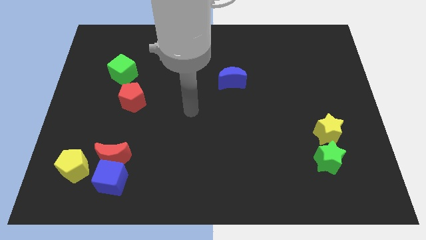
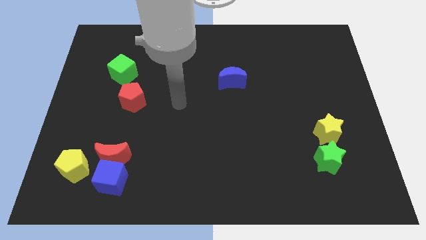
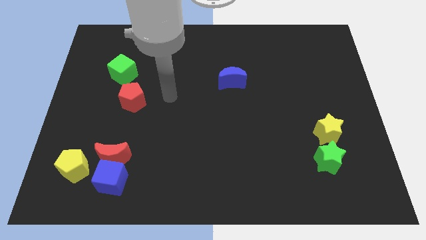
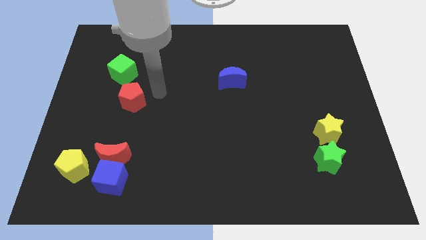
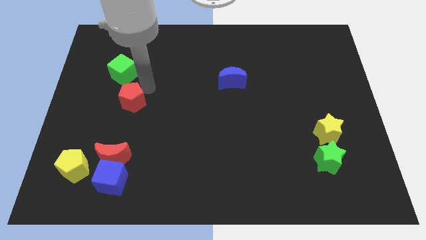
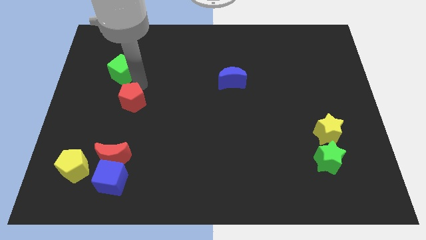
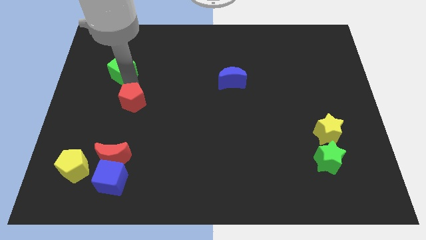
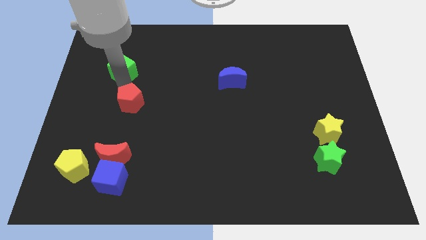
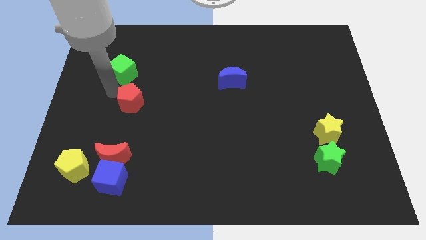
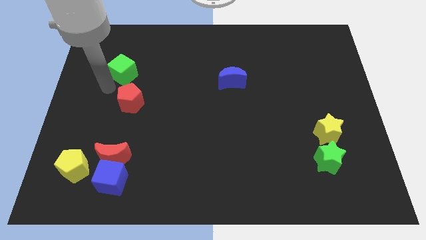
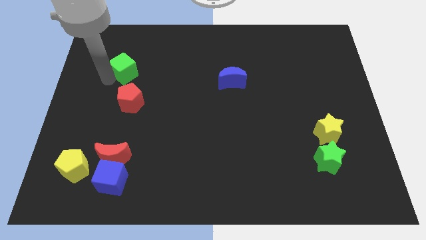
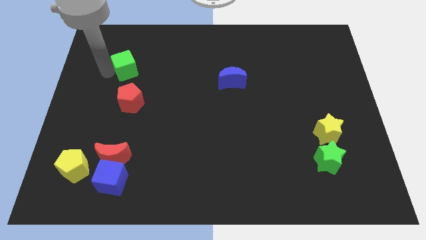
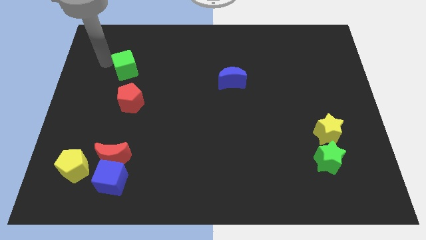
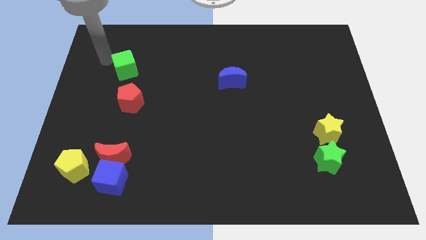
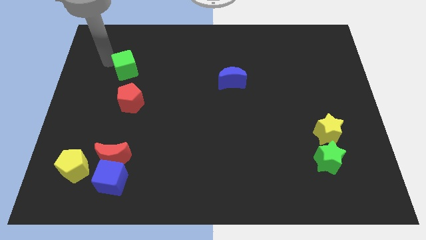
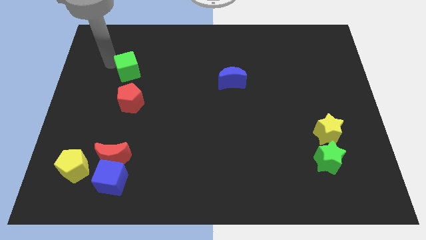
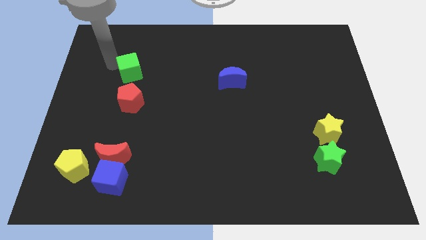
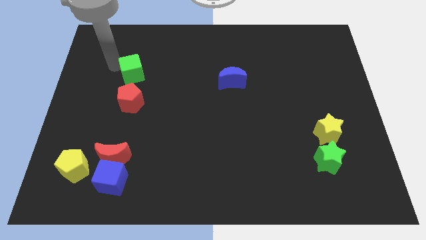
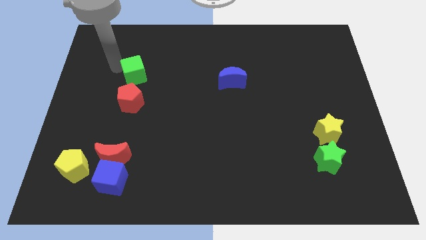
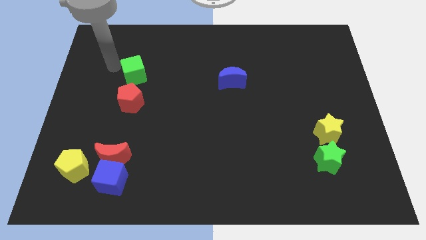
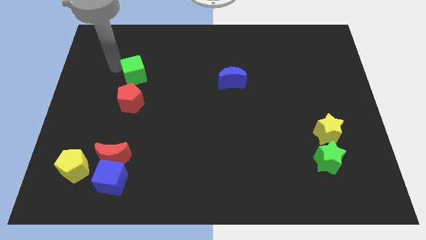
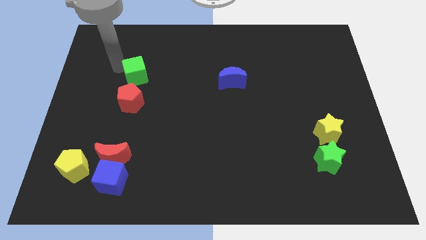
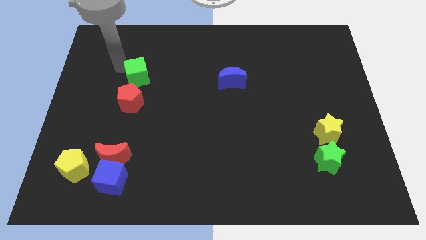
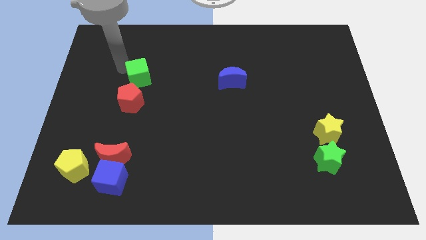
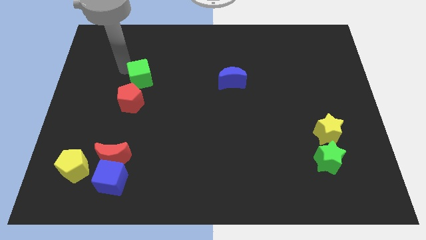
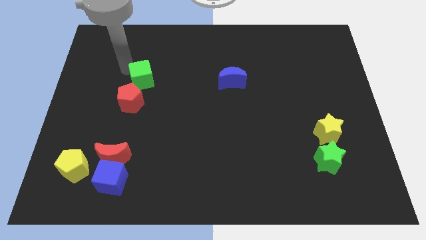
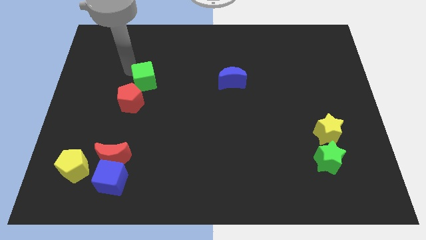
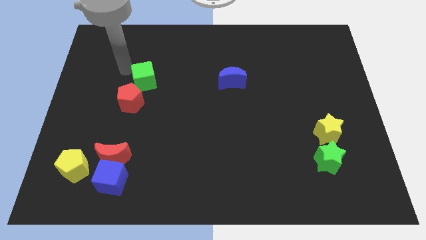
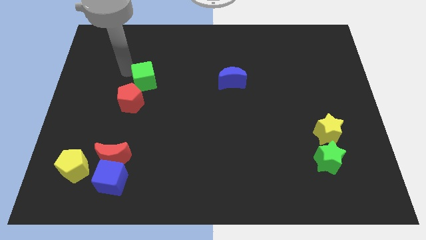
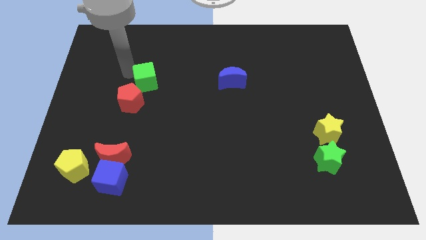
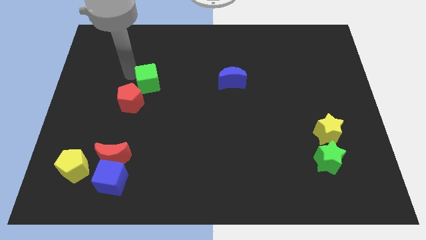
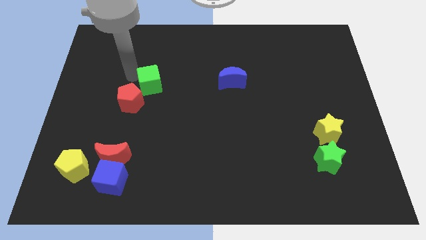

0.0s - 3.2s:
push the green cube down and to the right diagonally a little bit

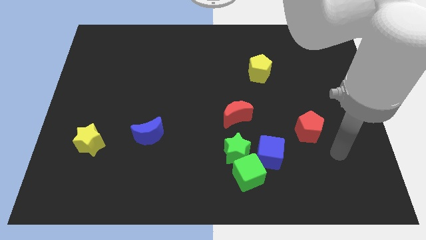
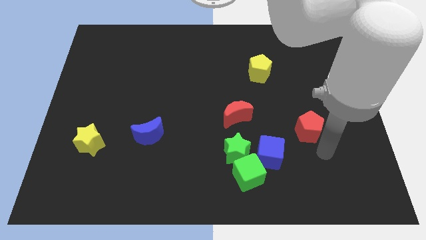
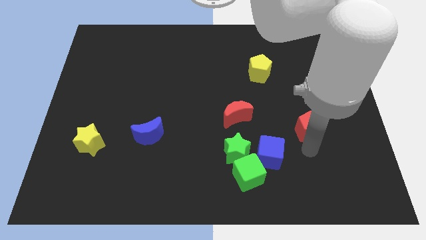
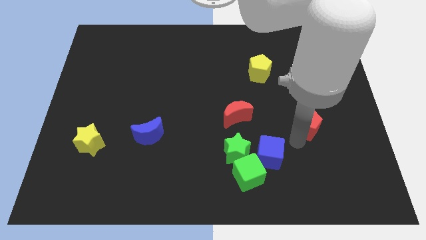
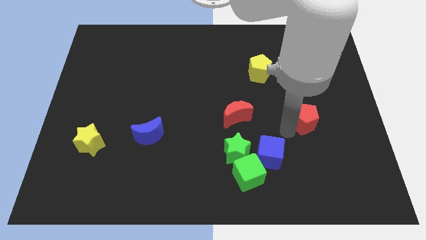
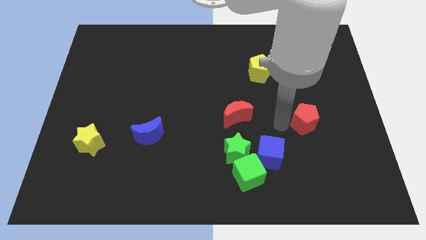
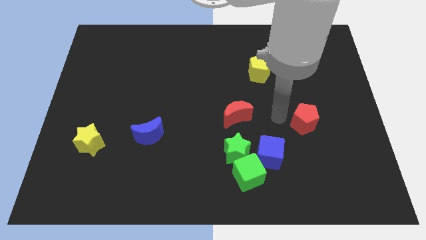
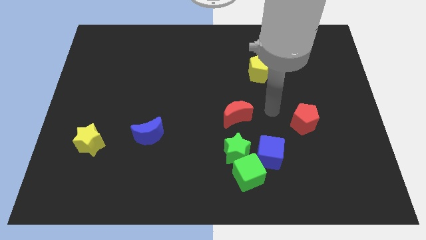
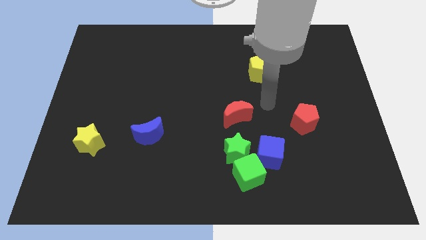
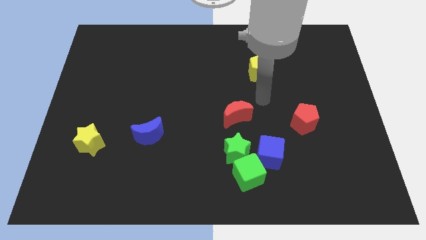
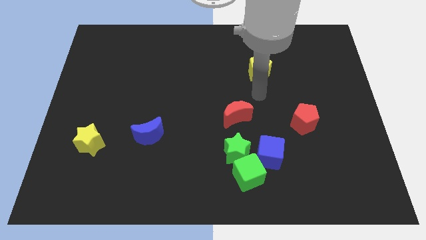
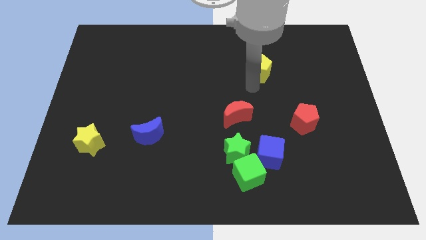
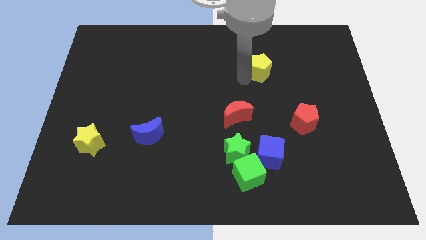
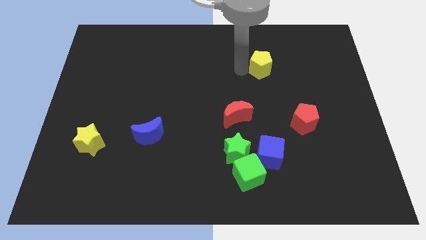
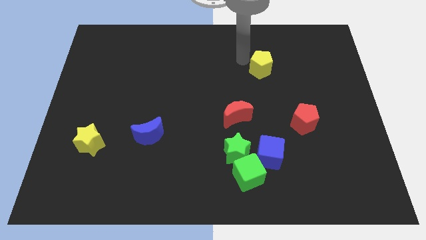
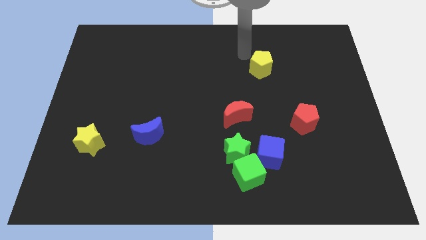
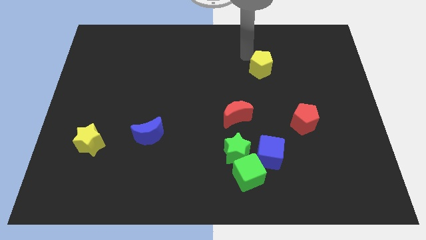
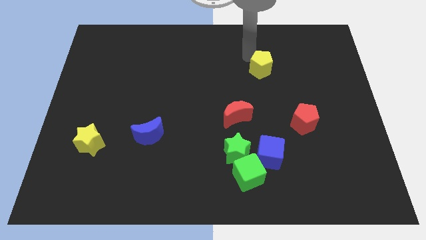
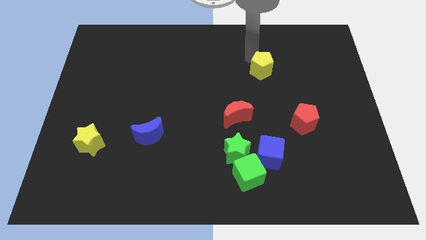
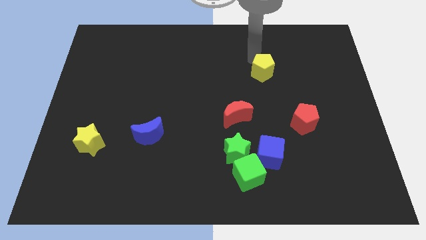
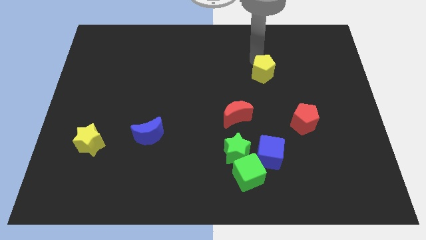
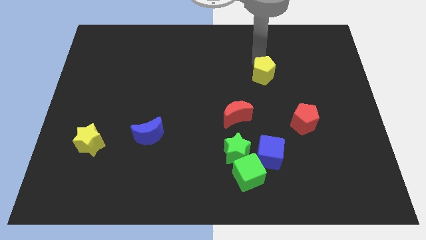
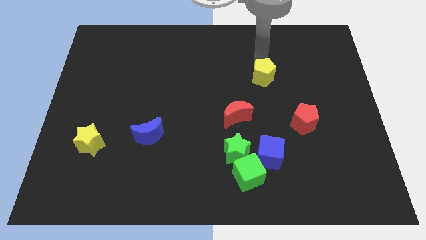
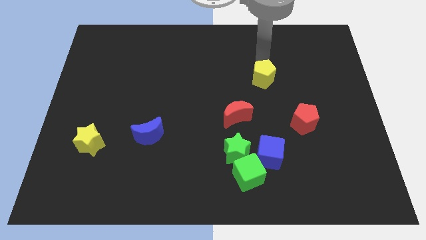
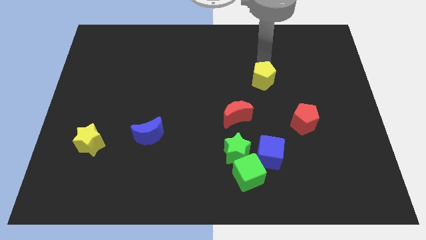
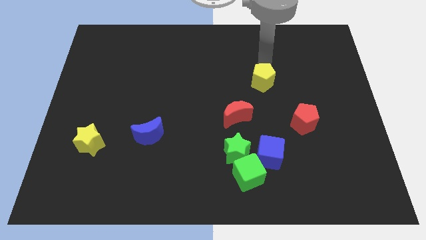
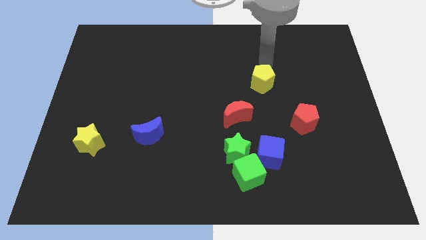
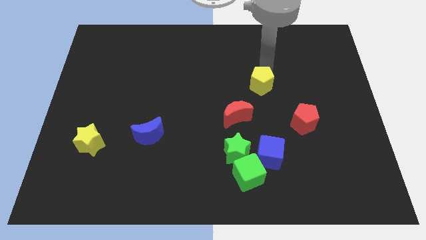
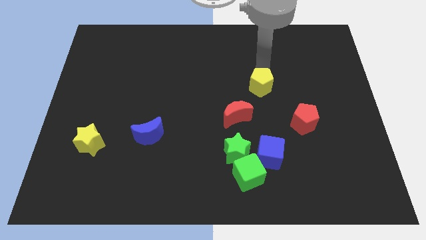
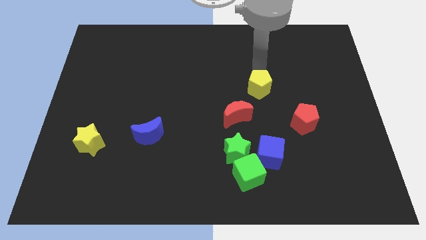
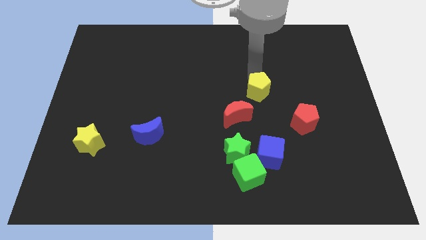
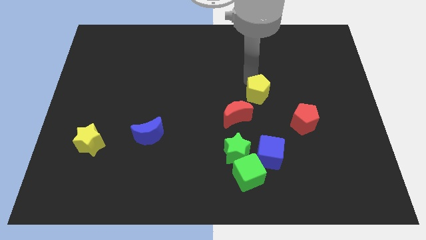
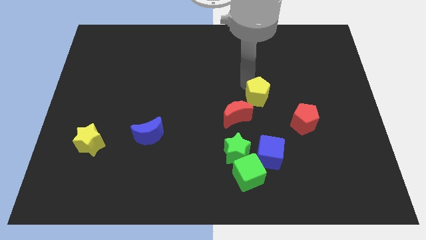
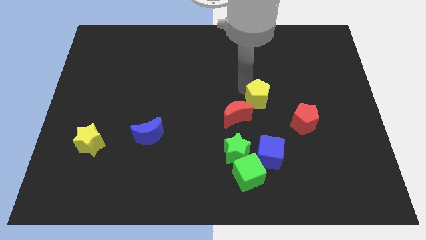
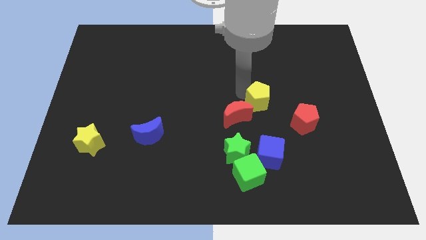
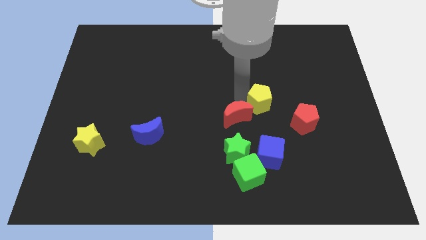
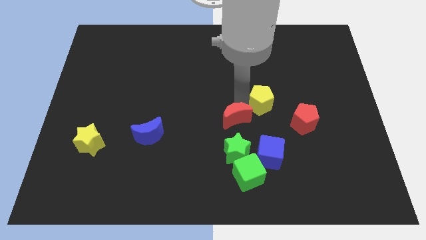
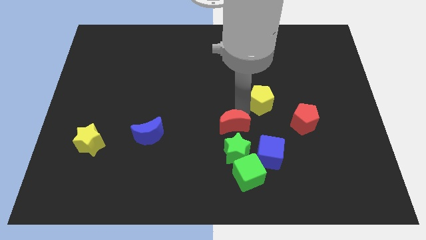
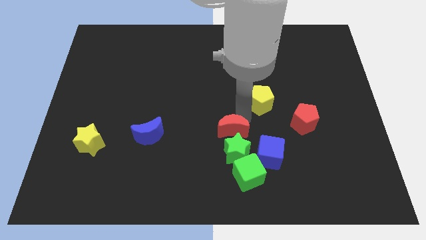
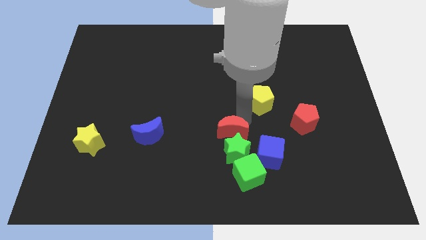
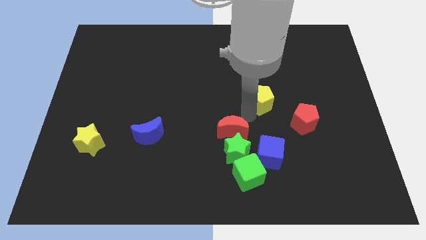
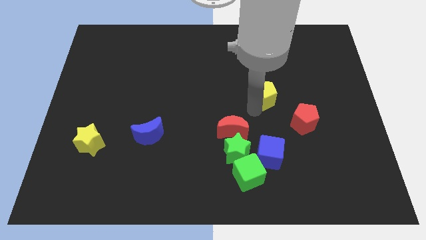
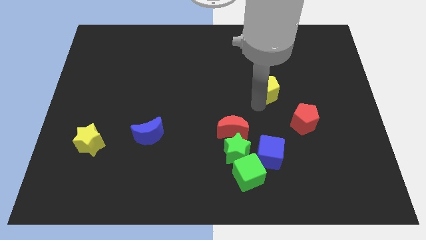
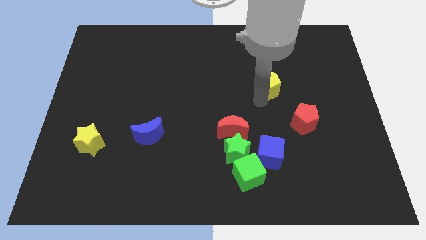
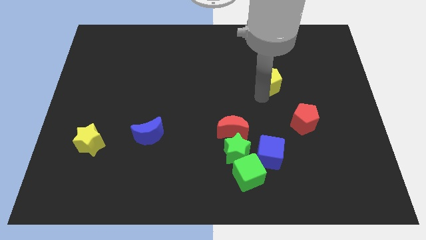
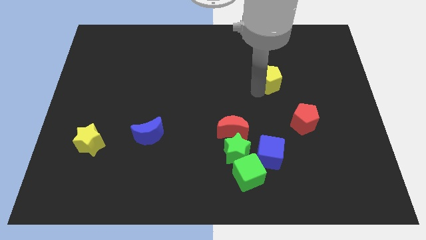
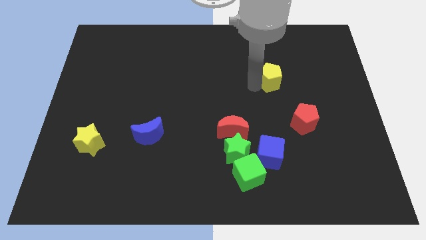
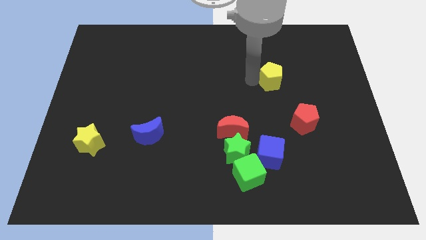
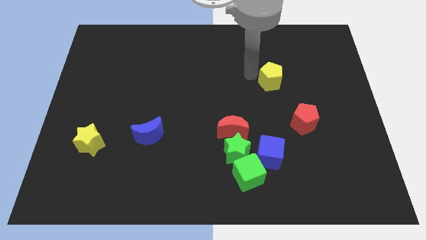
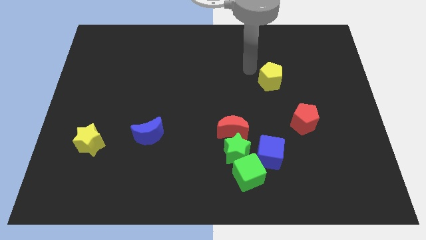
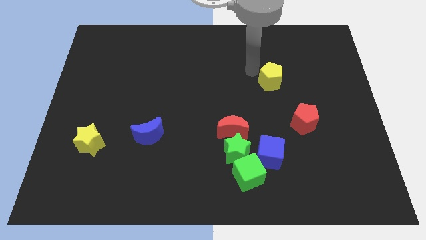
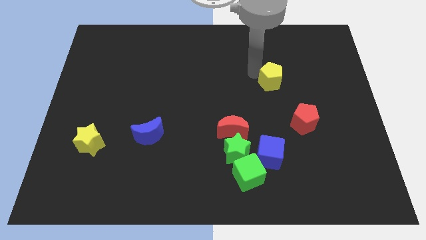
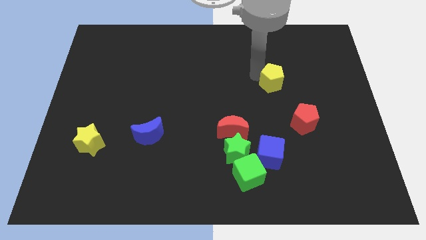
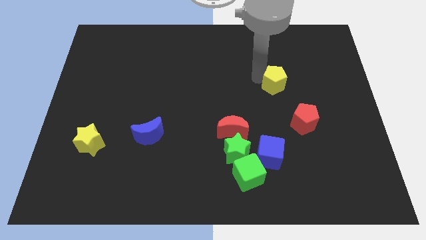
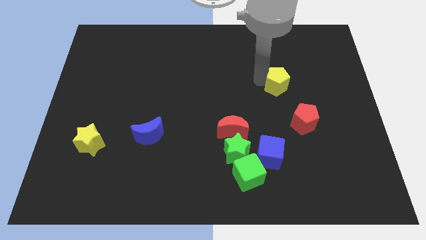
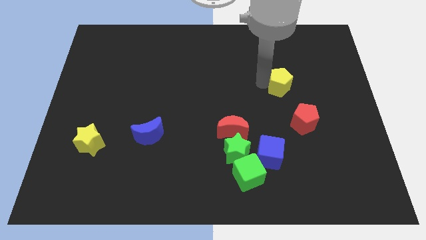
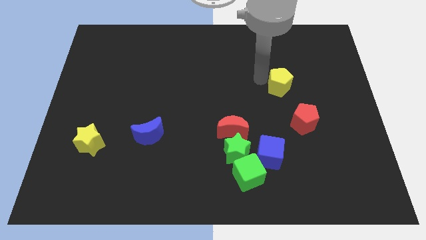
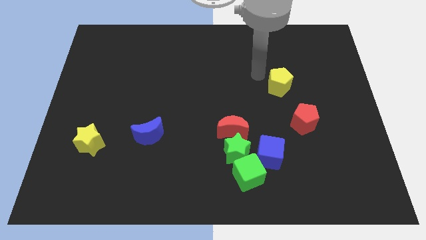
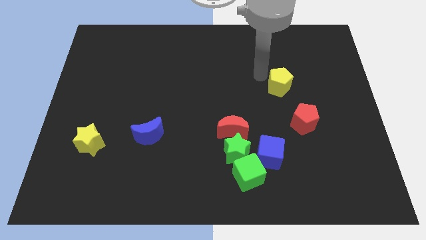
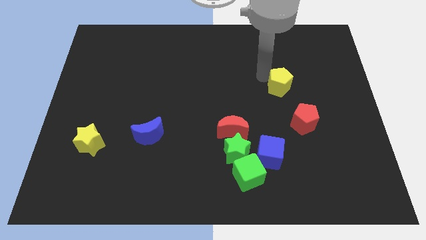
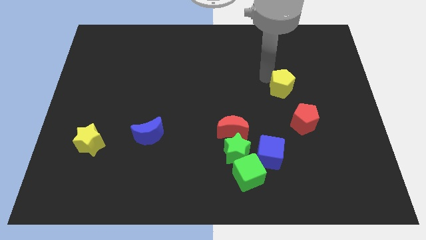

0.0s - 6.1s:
push the yellow pentagon a little downwards and to the right diagonally
